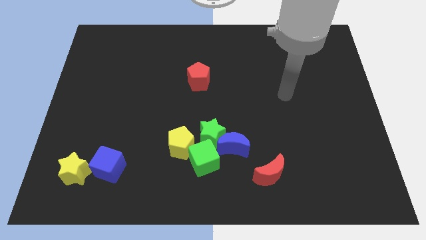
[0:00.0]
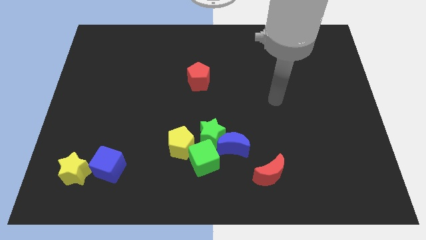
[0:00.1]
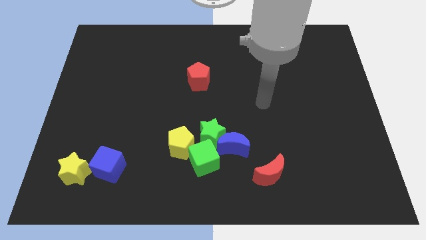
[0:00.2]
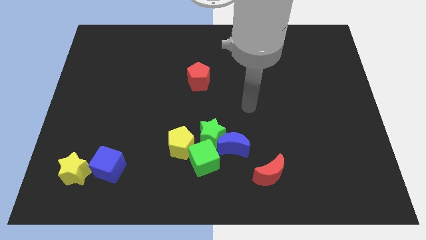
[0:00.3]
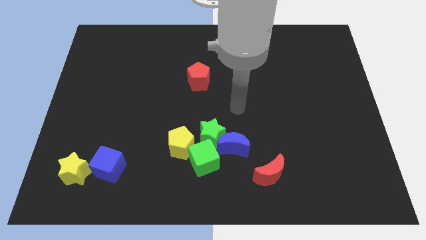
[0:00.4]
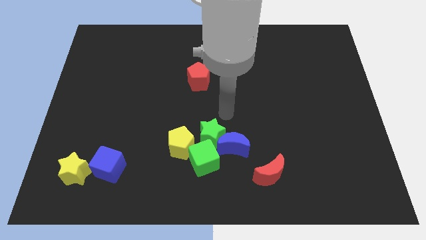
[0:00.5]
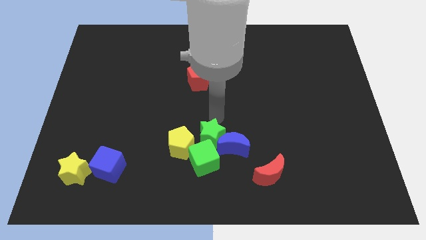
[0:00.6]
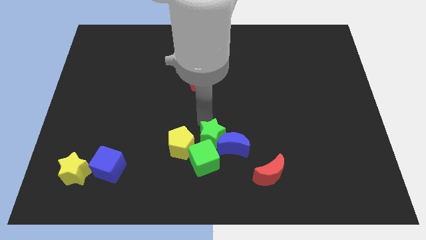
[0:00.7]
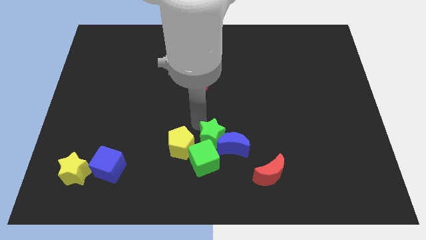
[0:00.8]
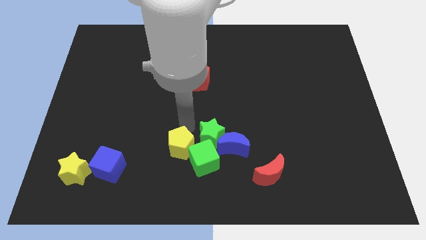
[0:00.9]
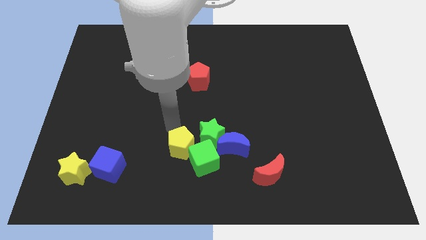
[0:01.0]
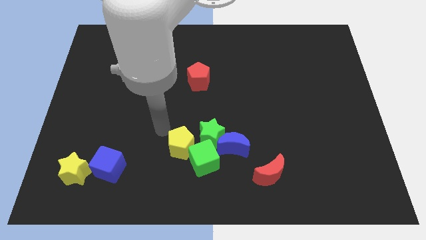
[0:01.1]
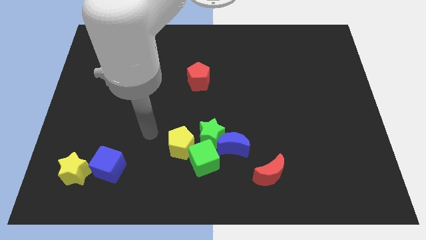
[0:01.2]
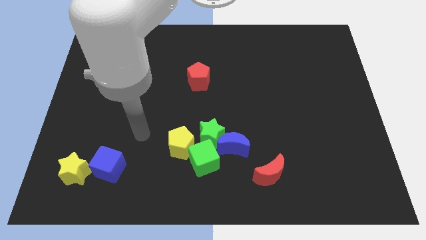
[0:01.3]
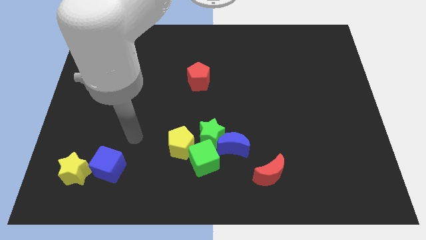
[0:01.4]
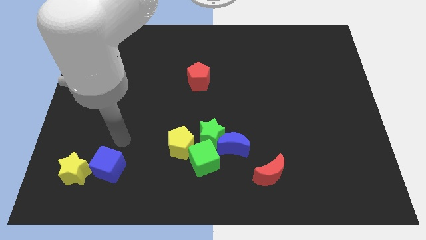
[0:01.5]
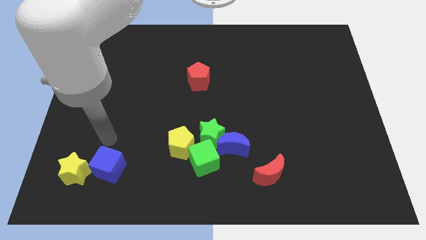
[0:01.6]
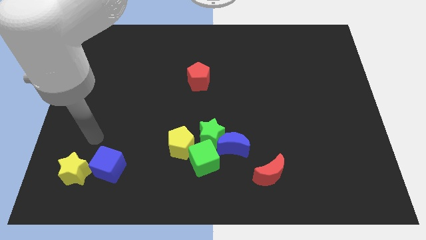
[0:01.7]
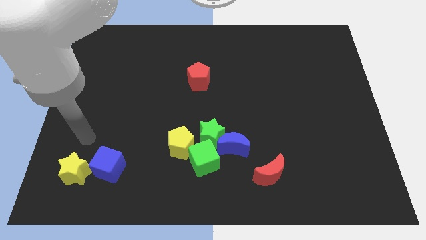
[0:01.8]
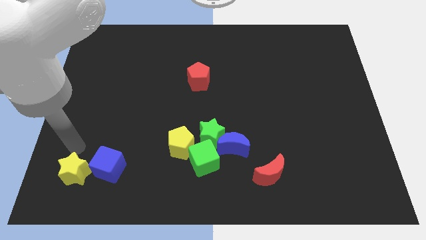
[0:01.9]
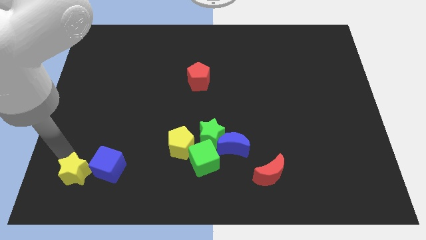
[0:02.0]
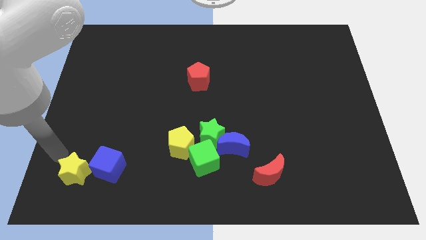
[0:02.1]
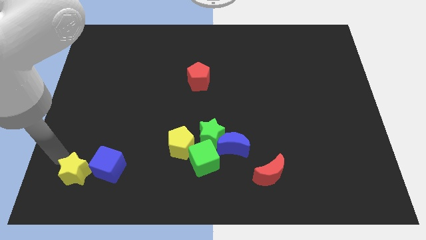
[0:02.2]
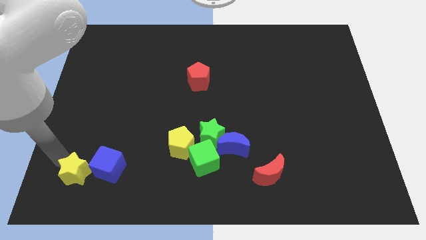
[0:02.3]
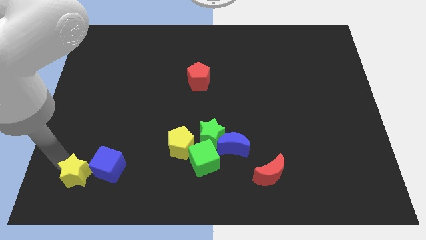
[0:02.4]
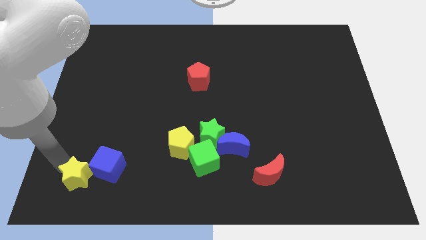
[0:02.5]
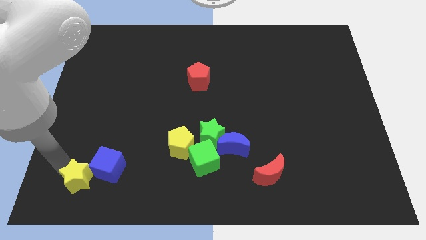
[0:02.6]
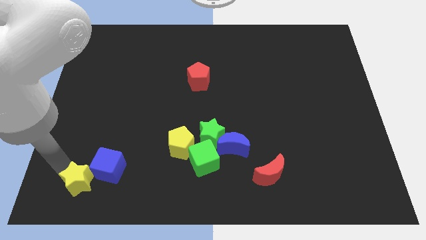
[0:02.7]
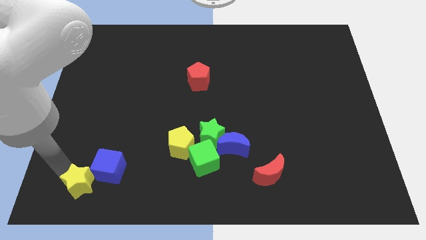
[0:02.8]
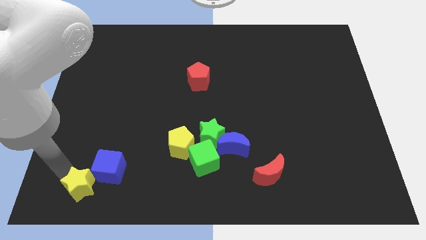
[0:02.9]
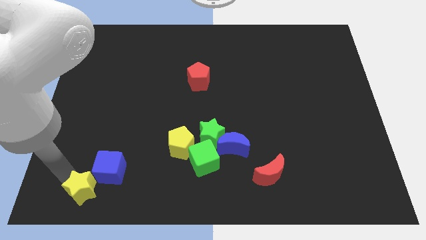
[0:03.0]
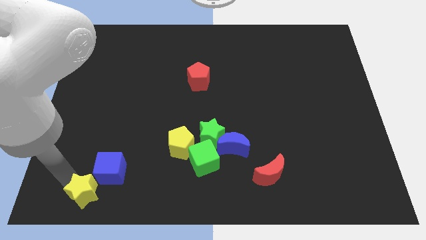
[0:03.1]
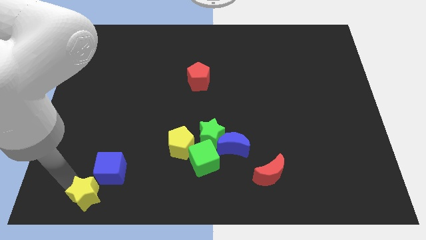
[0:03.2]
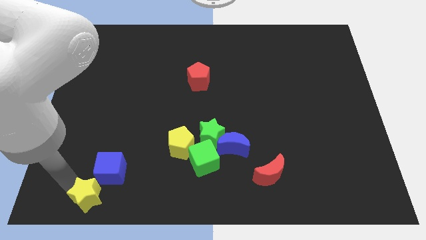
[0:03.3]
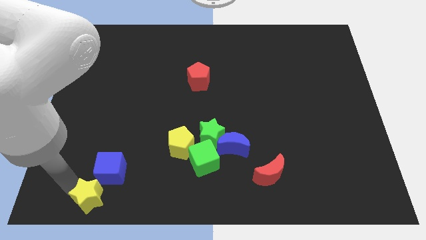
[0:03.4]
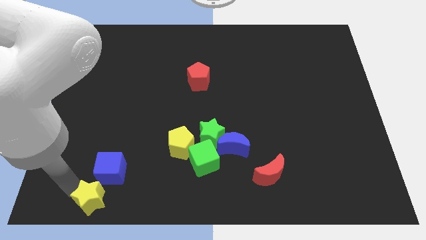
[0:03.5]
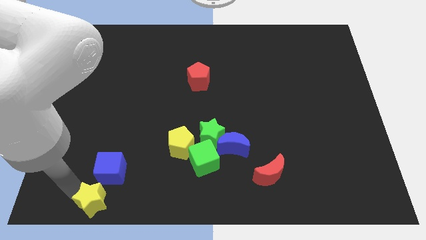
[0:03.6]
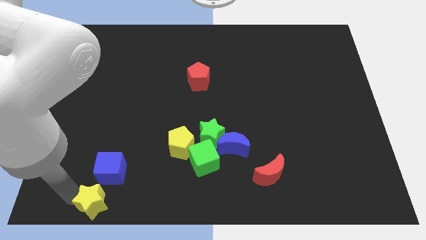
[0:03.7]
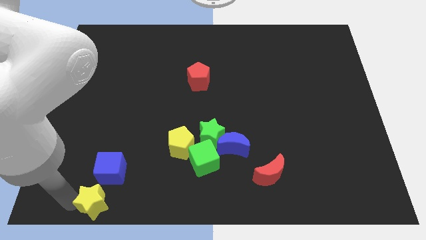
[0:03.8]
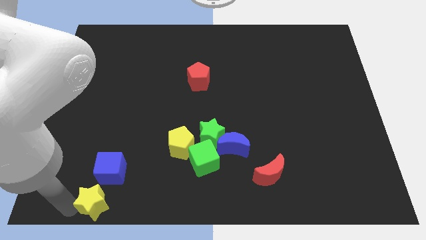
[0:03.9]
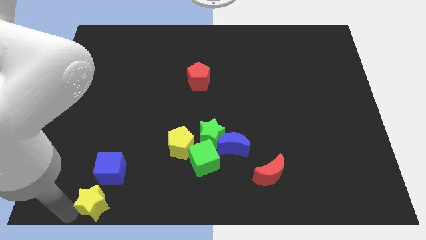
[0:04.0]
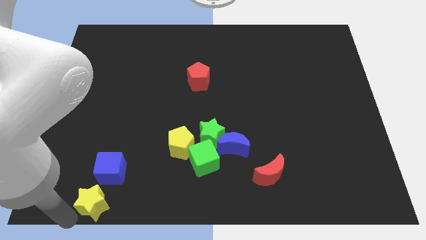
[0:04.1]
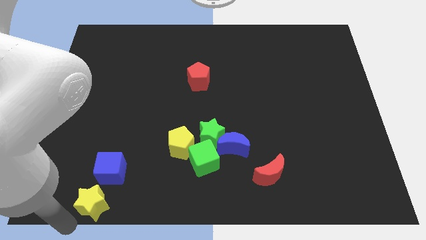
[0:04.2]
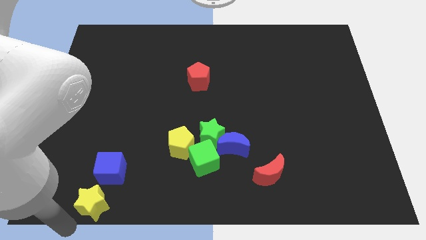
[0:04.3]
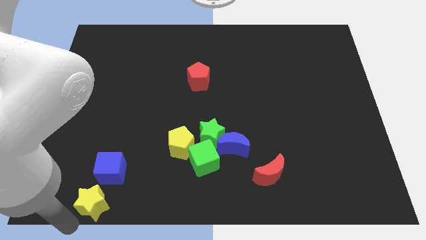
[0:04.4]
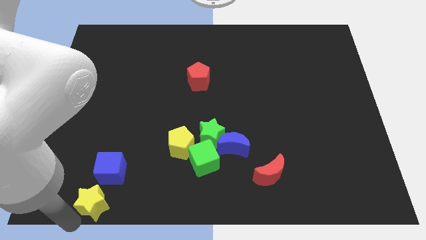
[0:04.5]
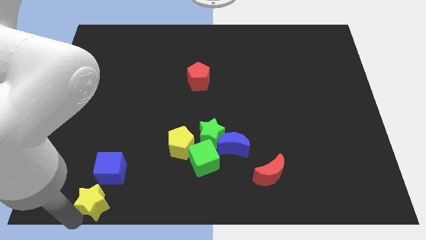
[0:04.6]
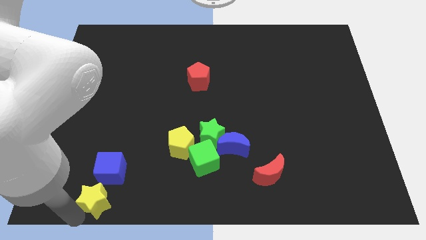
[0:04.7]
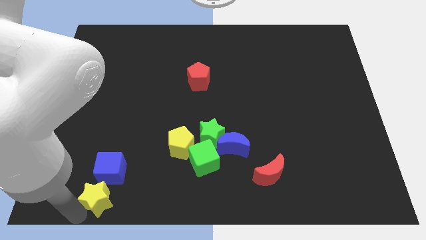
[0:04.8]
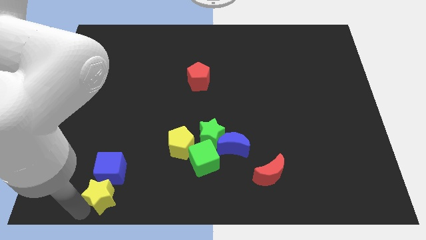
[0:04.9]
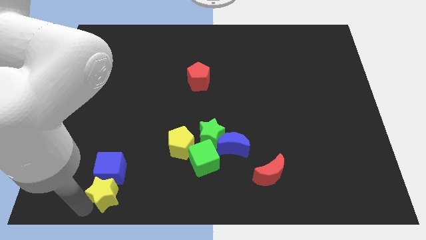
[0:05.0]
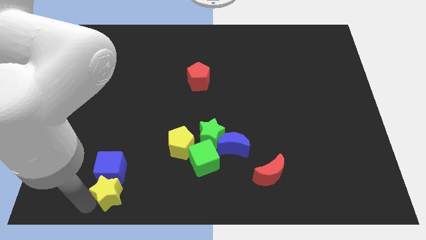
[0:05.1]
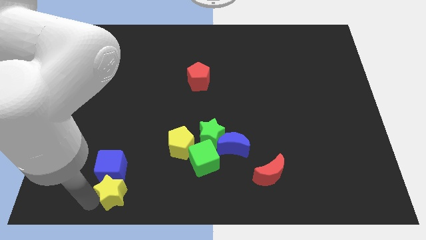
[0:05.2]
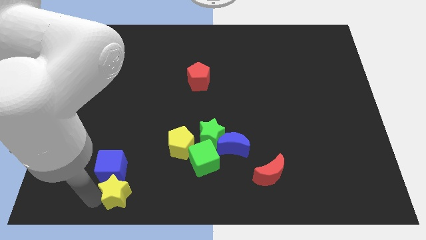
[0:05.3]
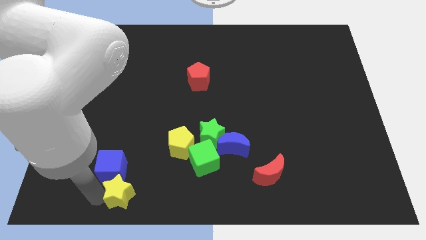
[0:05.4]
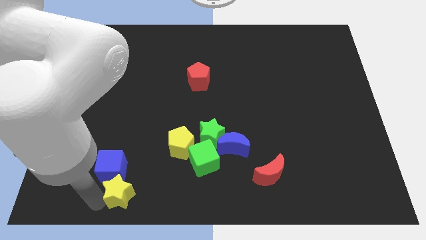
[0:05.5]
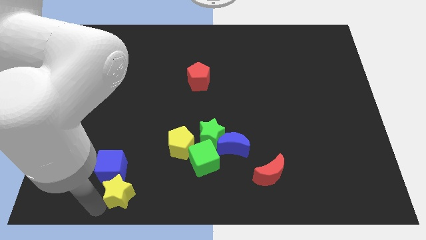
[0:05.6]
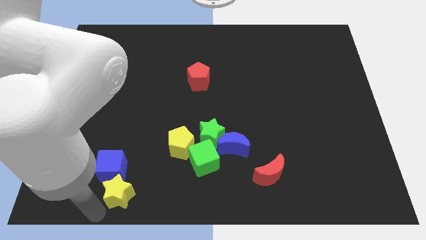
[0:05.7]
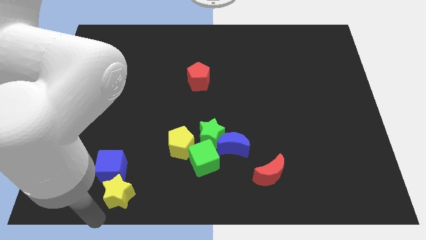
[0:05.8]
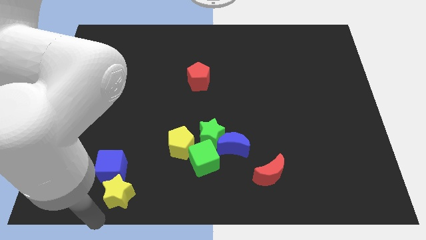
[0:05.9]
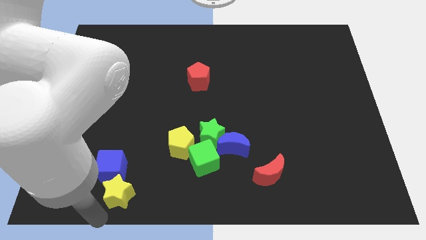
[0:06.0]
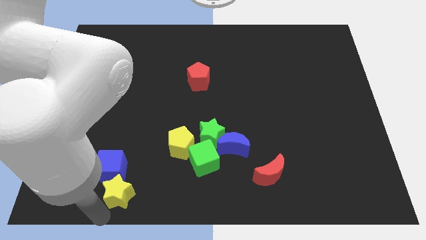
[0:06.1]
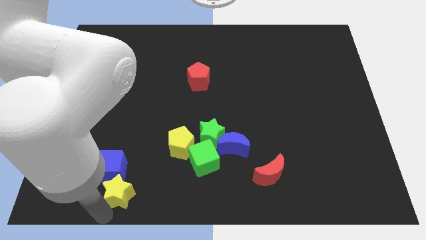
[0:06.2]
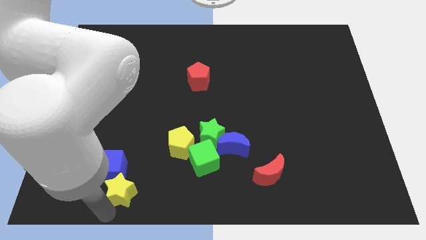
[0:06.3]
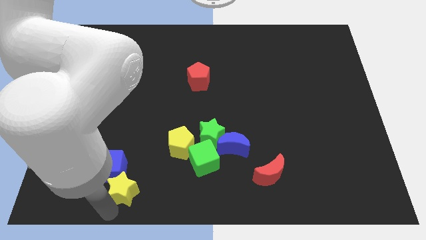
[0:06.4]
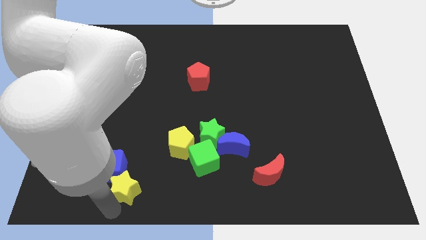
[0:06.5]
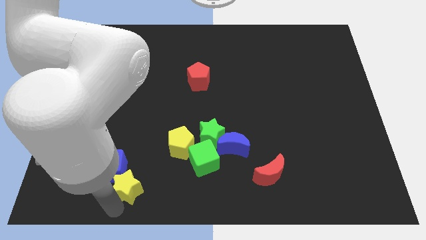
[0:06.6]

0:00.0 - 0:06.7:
push the yellow star right of the blue cube
